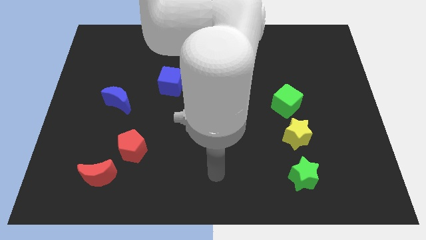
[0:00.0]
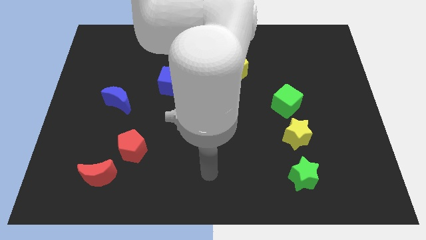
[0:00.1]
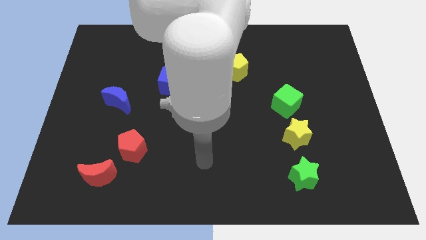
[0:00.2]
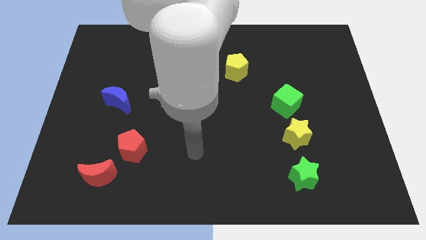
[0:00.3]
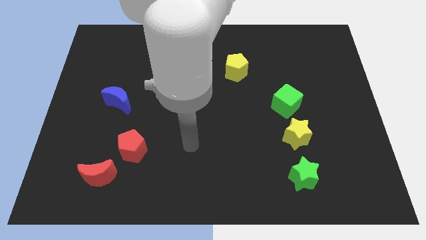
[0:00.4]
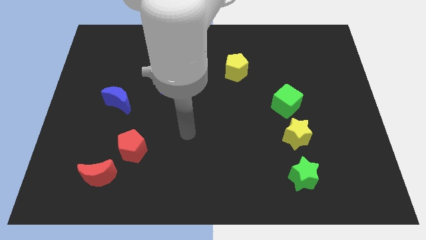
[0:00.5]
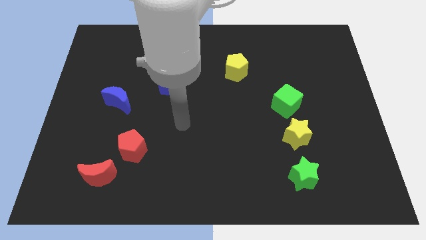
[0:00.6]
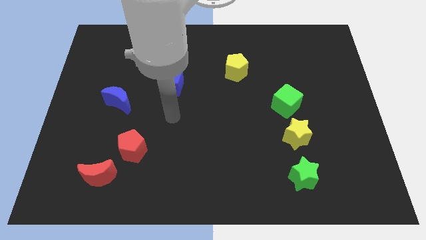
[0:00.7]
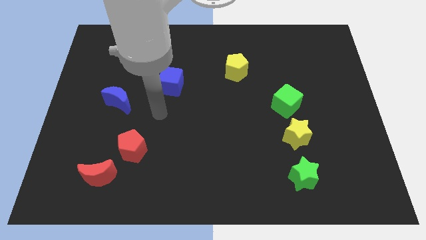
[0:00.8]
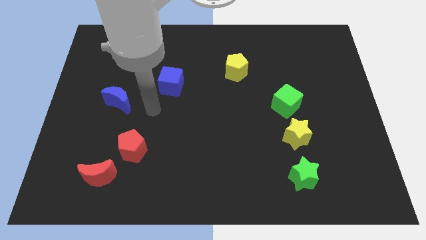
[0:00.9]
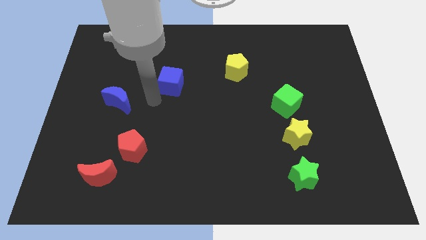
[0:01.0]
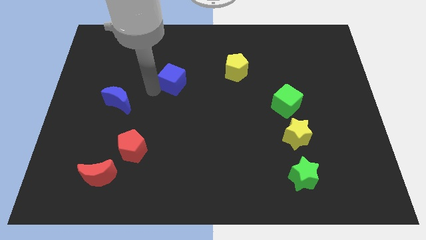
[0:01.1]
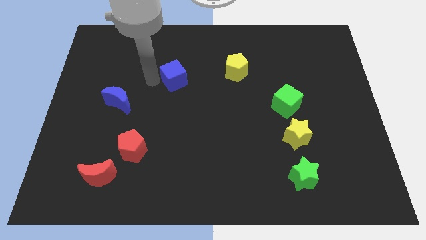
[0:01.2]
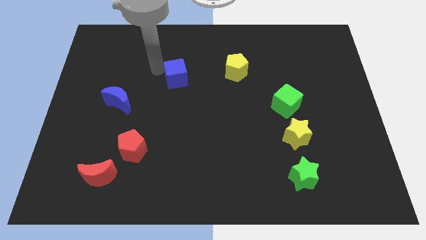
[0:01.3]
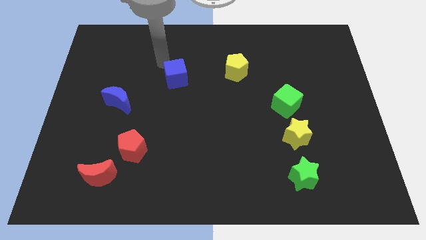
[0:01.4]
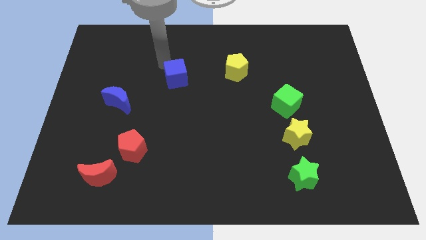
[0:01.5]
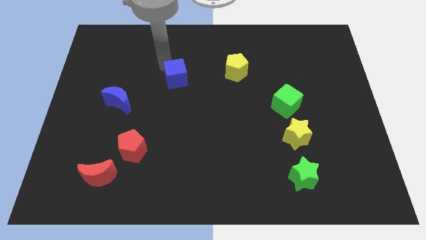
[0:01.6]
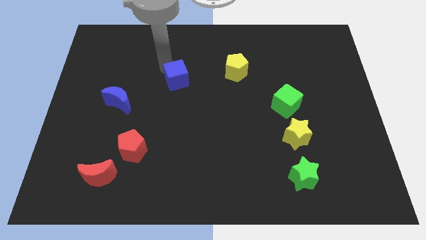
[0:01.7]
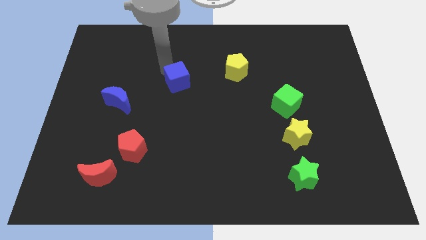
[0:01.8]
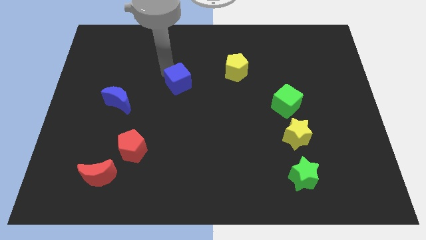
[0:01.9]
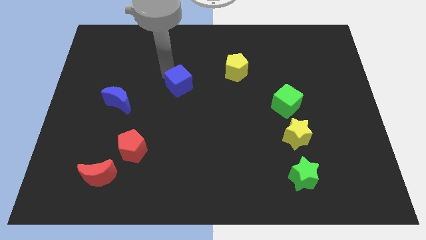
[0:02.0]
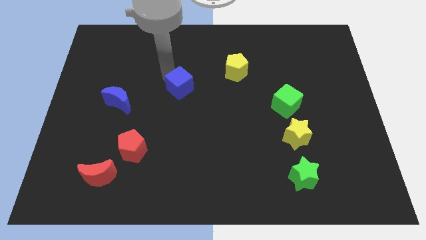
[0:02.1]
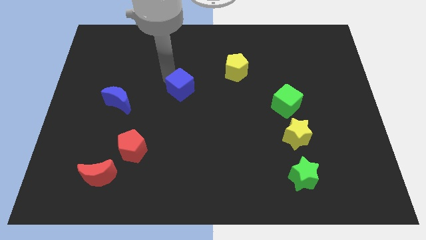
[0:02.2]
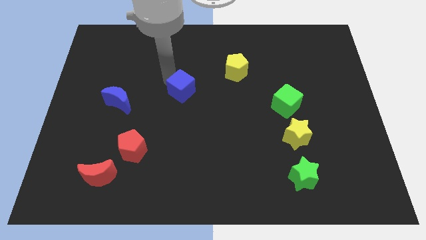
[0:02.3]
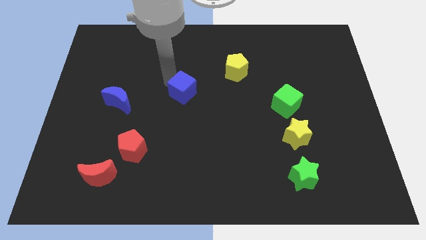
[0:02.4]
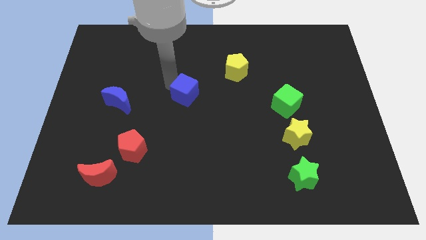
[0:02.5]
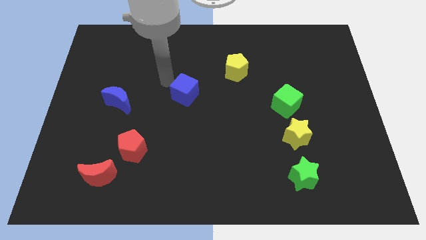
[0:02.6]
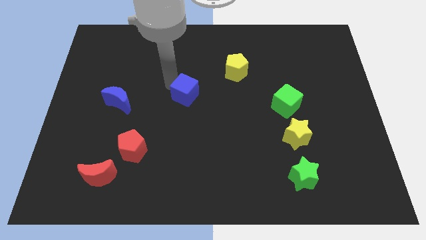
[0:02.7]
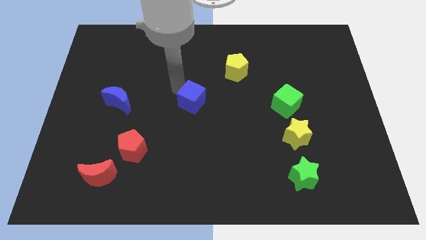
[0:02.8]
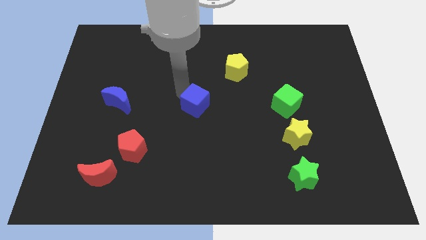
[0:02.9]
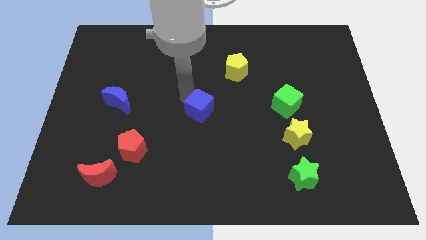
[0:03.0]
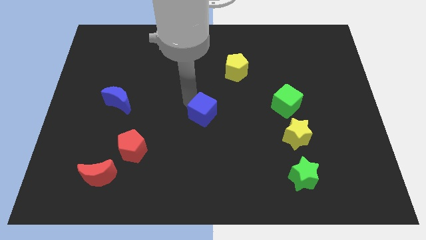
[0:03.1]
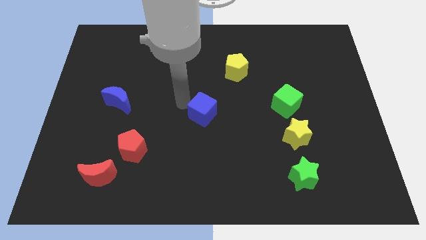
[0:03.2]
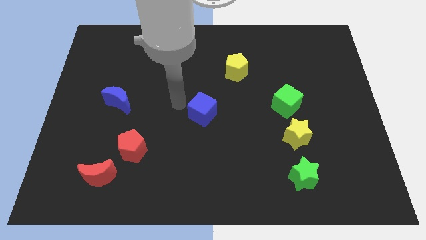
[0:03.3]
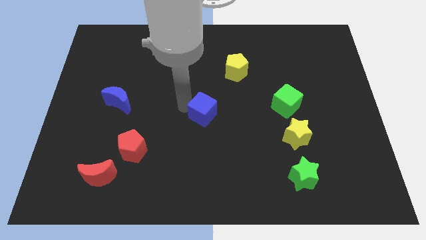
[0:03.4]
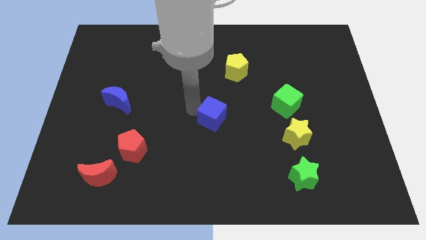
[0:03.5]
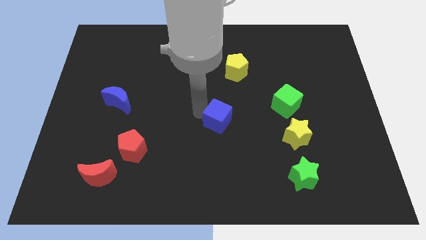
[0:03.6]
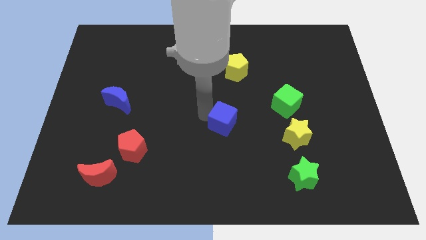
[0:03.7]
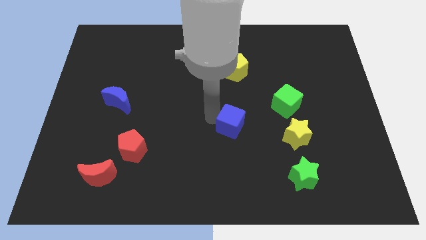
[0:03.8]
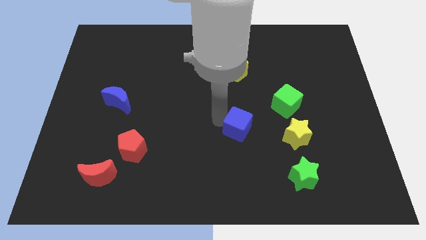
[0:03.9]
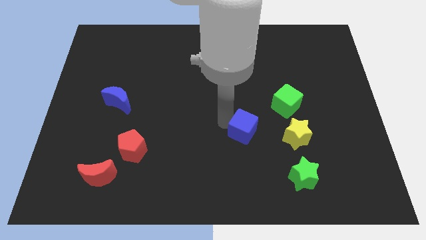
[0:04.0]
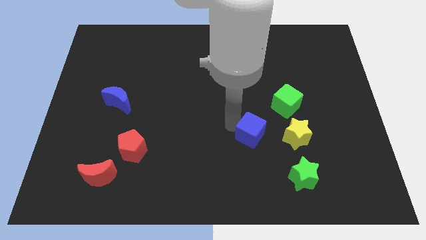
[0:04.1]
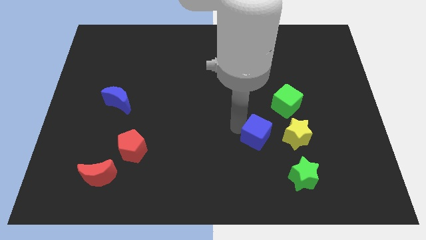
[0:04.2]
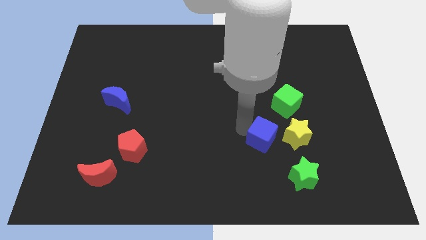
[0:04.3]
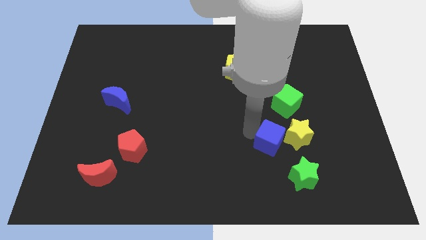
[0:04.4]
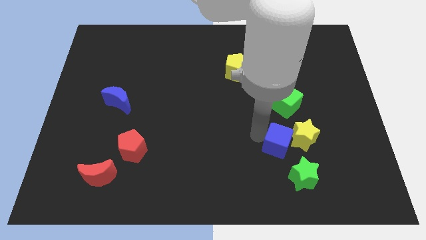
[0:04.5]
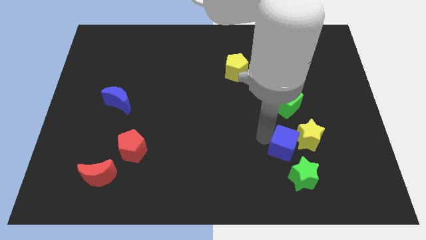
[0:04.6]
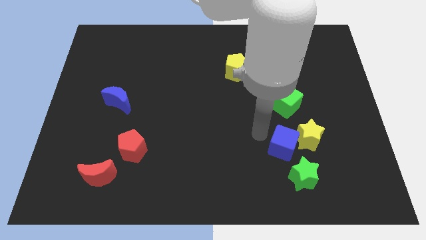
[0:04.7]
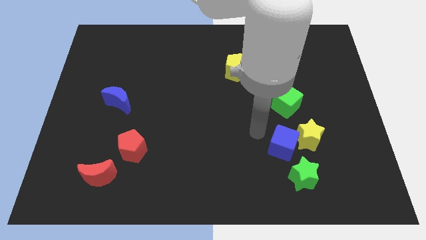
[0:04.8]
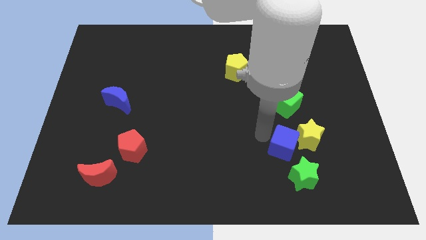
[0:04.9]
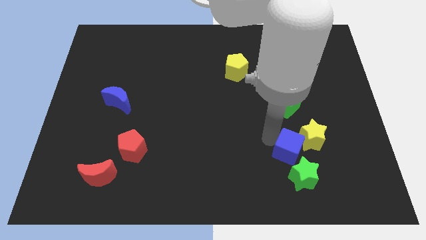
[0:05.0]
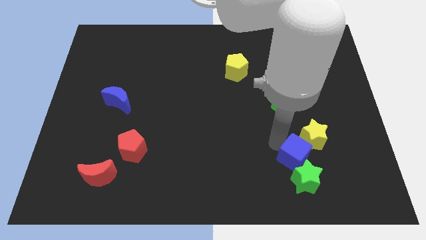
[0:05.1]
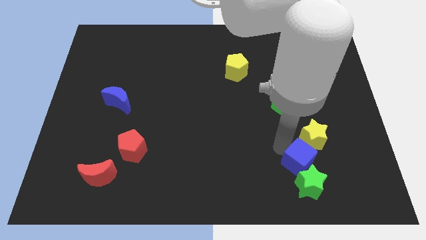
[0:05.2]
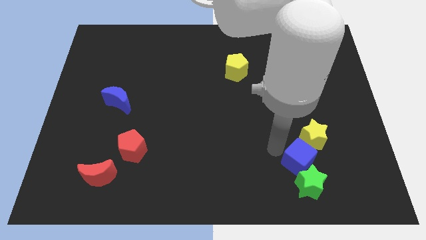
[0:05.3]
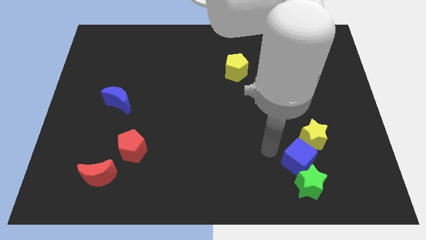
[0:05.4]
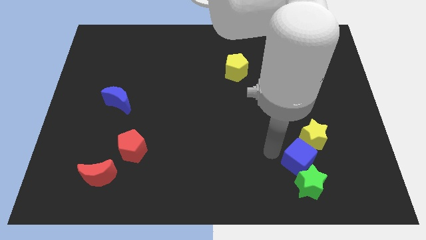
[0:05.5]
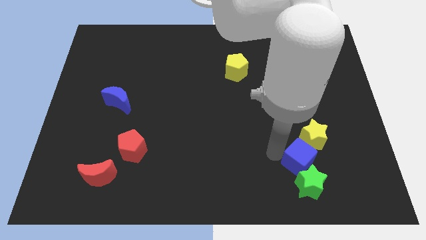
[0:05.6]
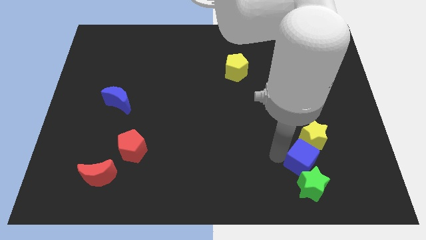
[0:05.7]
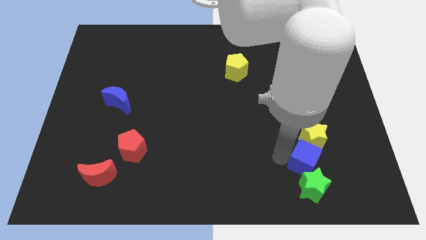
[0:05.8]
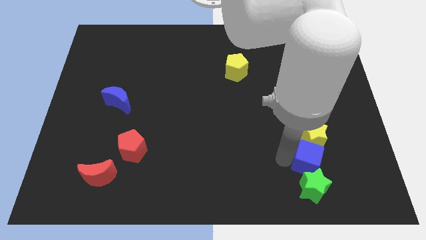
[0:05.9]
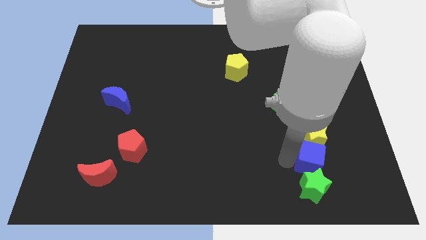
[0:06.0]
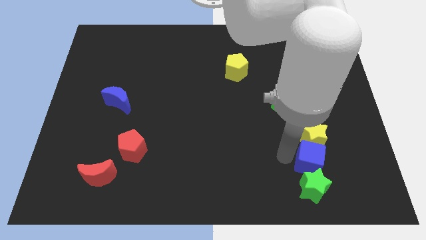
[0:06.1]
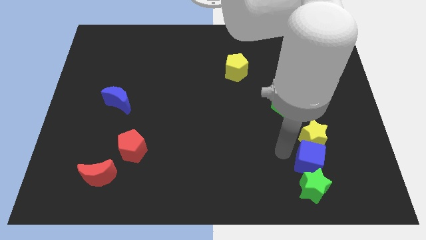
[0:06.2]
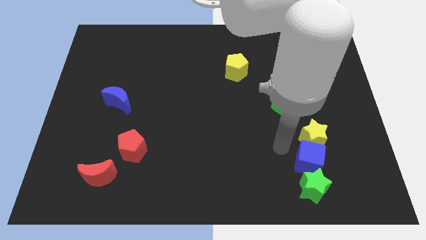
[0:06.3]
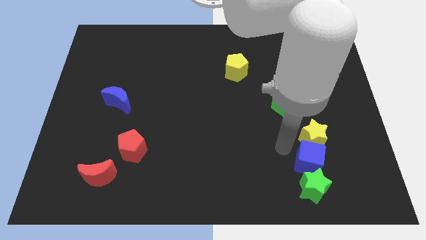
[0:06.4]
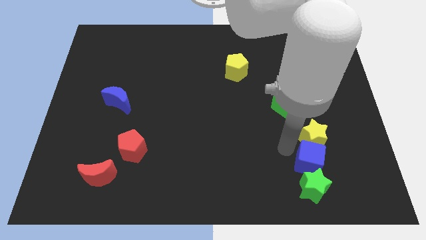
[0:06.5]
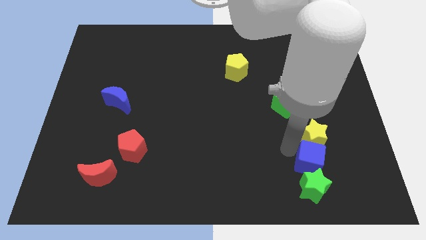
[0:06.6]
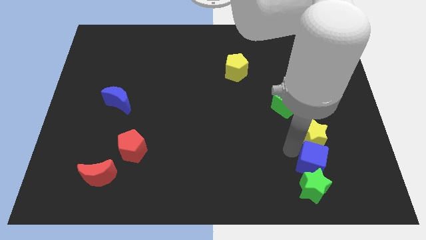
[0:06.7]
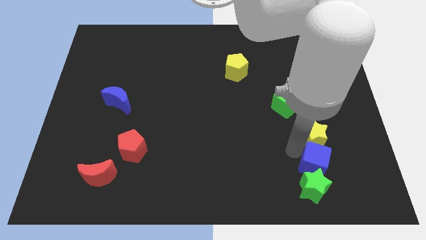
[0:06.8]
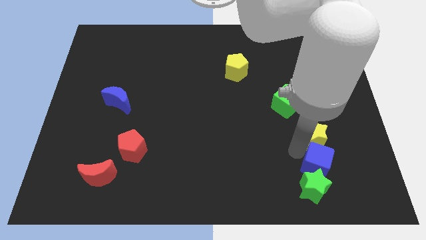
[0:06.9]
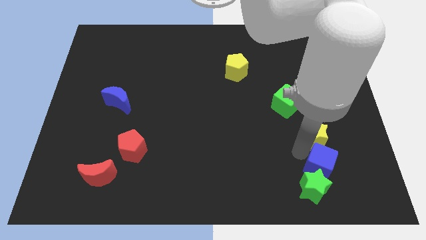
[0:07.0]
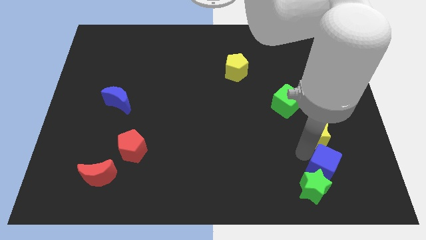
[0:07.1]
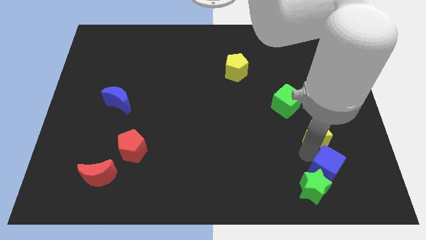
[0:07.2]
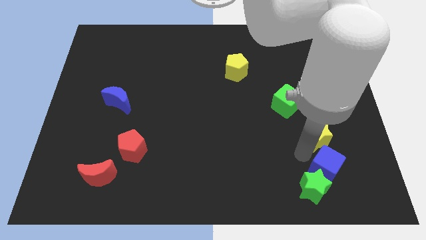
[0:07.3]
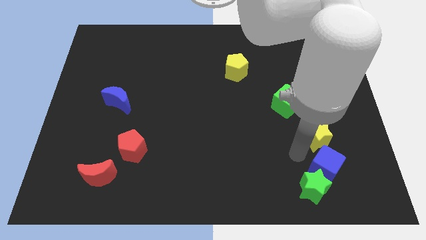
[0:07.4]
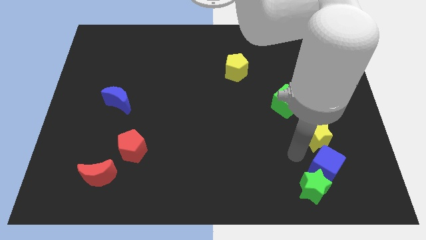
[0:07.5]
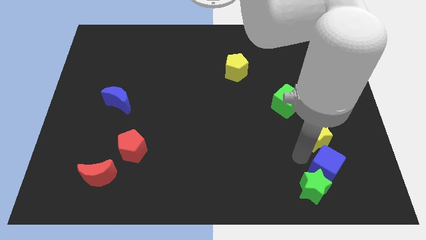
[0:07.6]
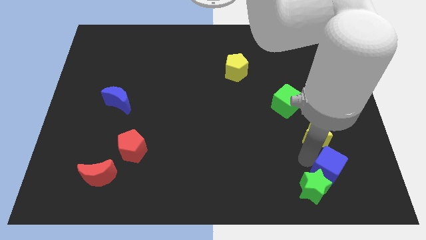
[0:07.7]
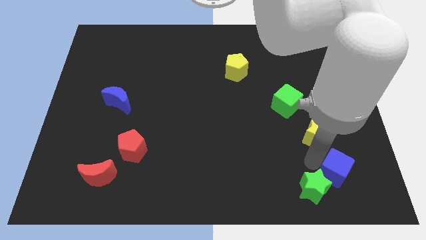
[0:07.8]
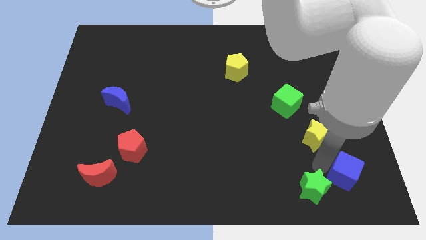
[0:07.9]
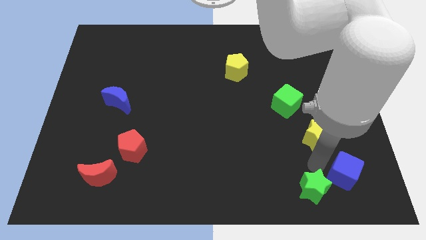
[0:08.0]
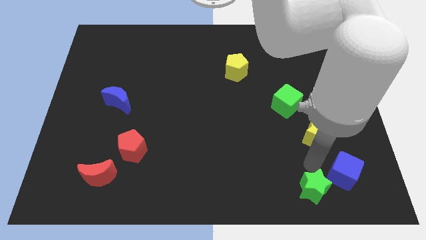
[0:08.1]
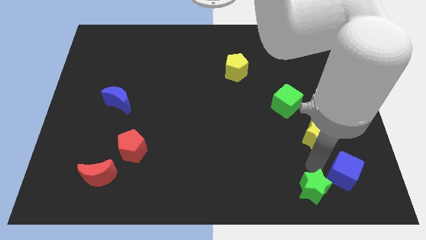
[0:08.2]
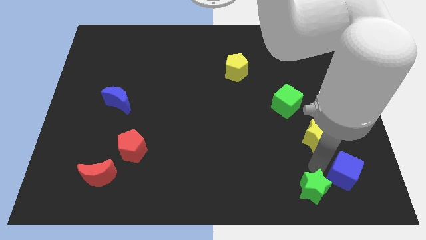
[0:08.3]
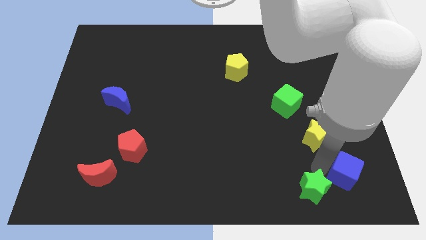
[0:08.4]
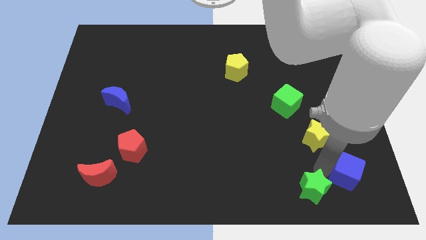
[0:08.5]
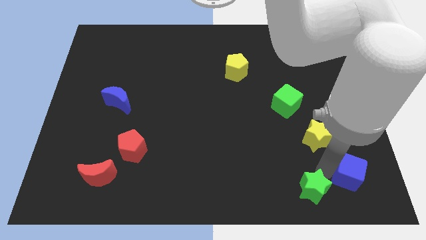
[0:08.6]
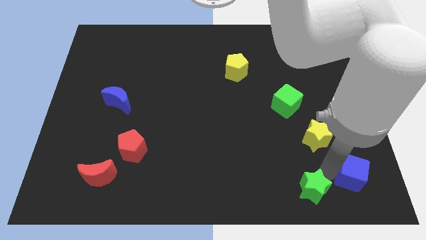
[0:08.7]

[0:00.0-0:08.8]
push the blue cube to the lower right corner
